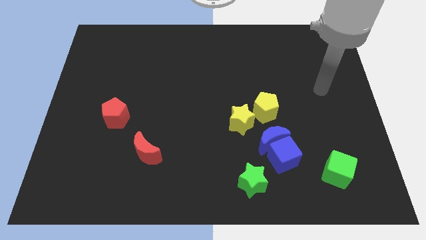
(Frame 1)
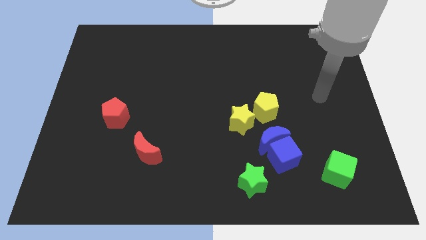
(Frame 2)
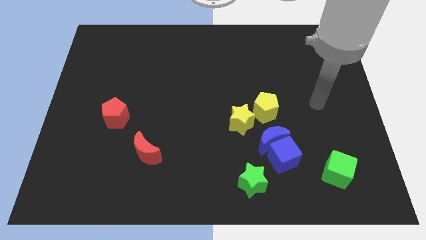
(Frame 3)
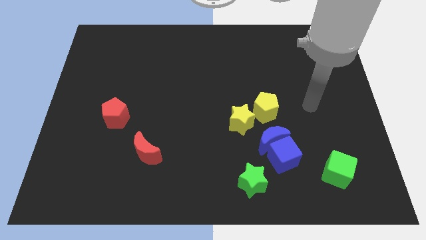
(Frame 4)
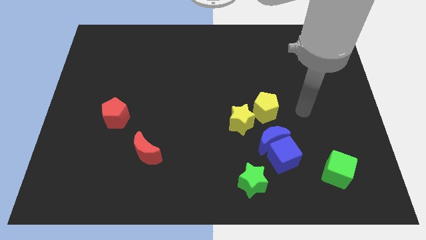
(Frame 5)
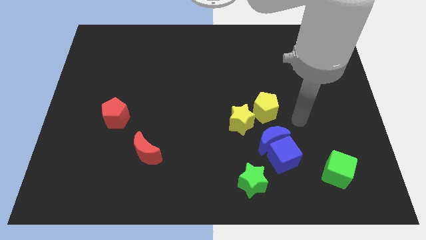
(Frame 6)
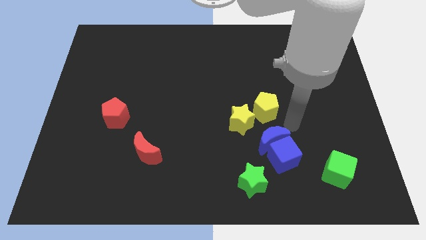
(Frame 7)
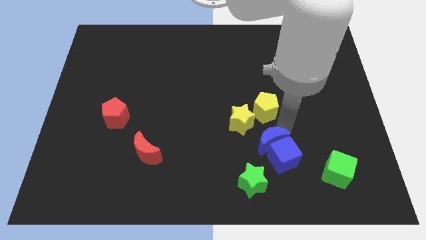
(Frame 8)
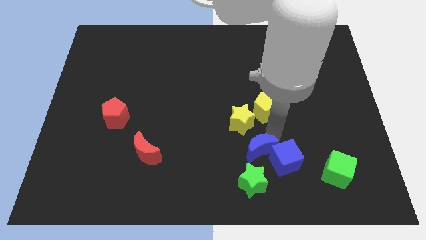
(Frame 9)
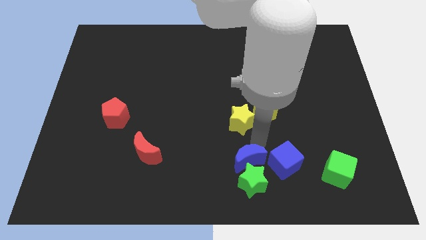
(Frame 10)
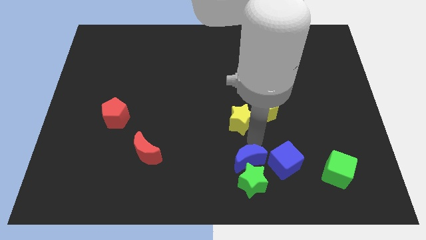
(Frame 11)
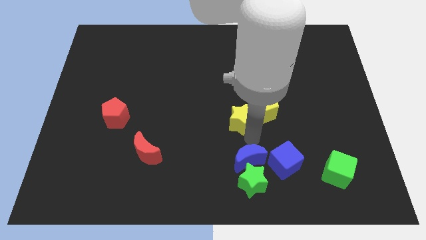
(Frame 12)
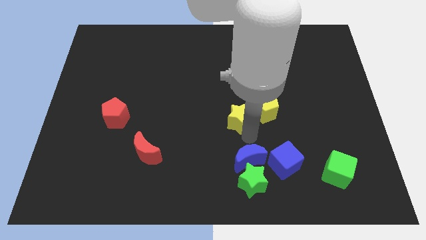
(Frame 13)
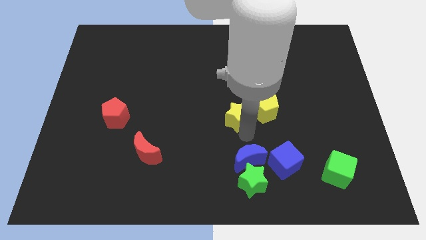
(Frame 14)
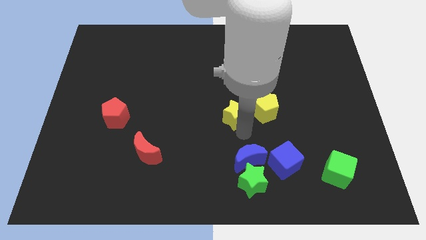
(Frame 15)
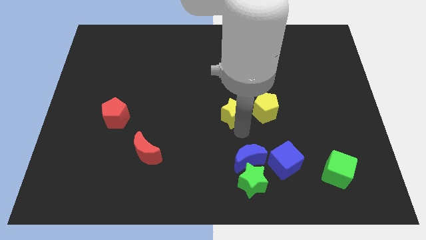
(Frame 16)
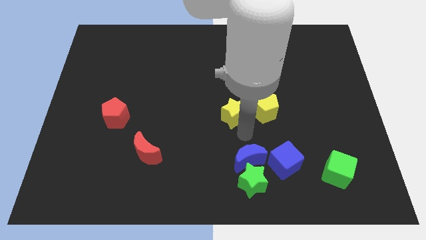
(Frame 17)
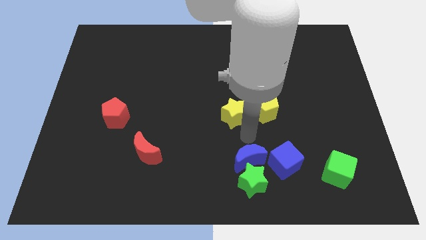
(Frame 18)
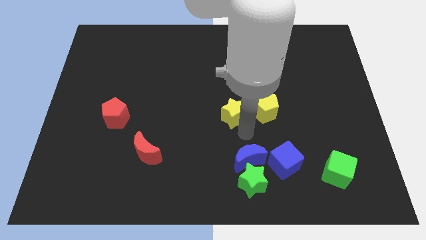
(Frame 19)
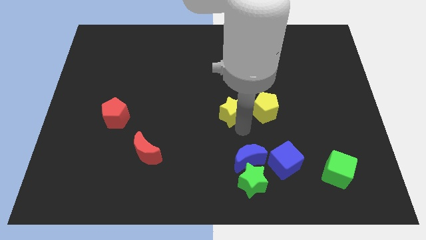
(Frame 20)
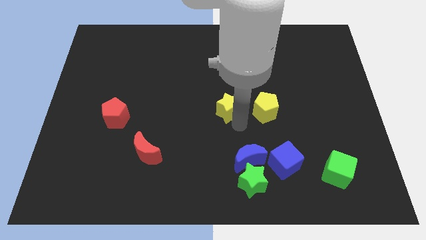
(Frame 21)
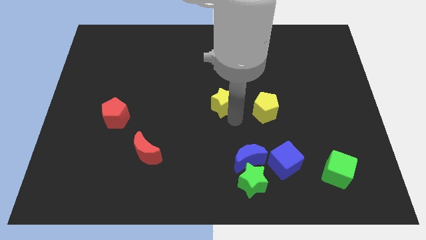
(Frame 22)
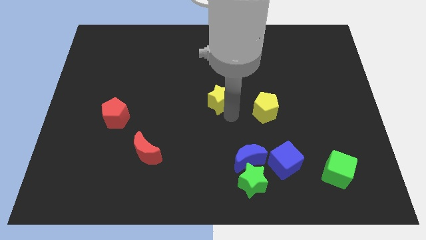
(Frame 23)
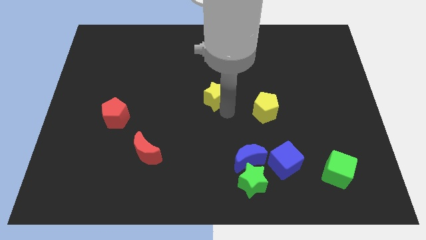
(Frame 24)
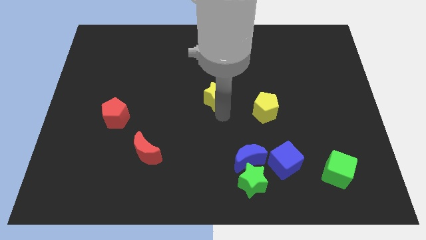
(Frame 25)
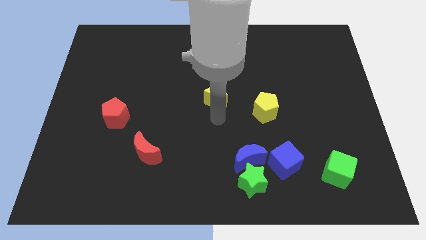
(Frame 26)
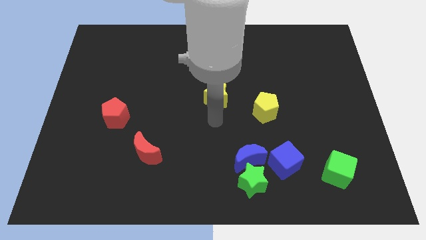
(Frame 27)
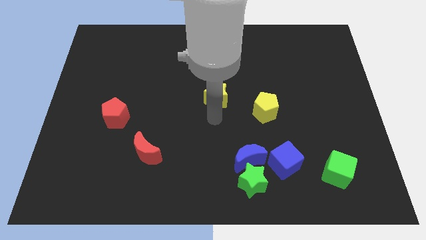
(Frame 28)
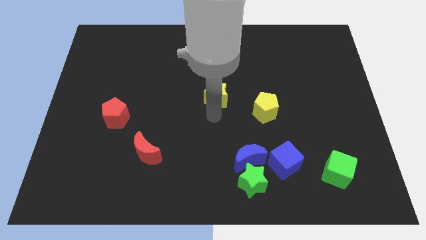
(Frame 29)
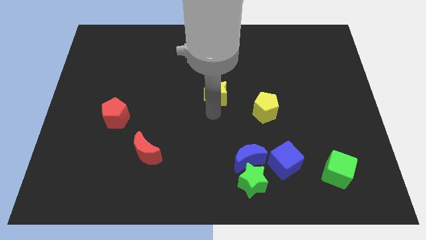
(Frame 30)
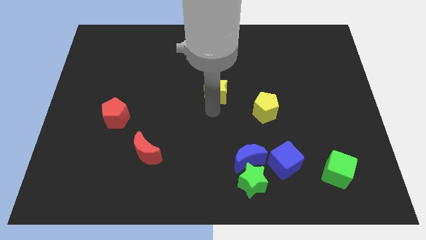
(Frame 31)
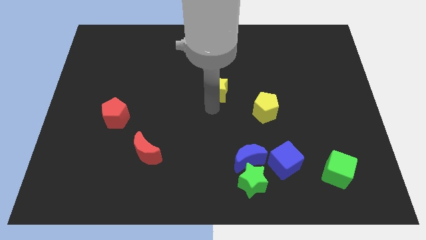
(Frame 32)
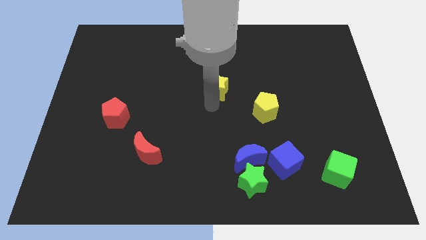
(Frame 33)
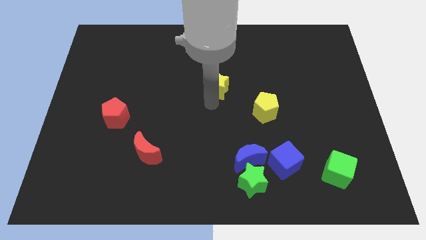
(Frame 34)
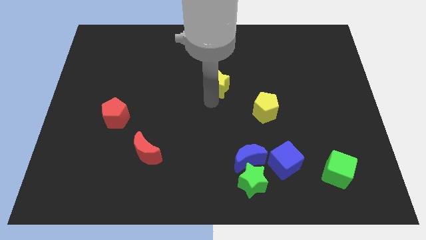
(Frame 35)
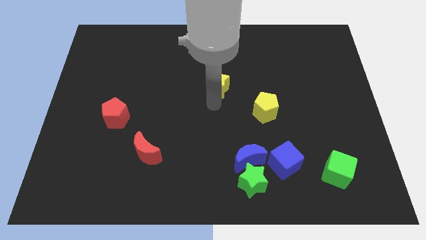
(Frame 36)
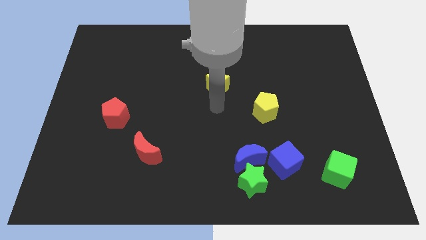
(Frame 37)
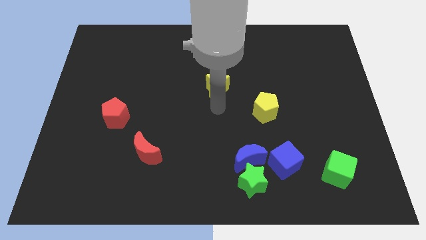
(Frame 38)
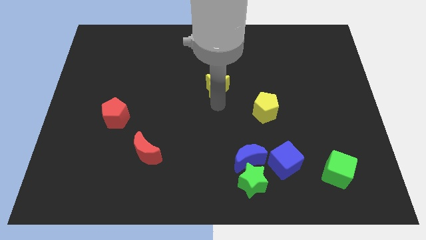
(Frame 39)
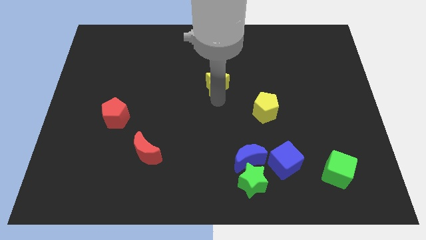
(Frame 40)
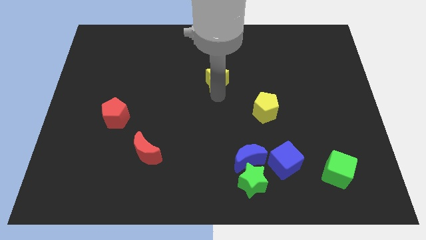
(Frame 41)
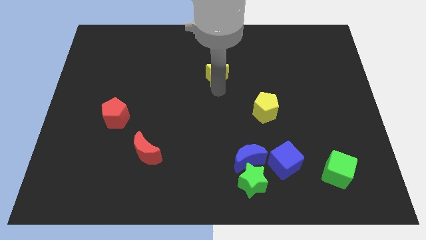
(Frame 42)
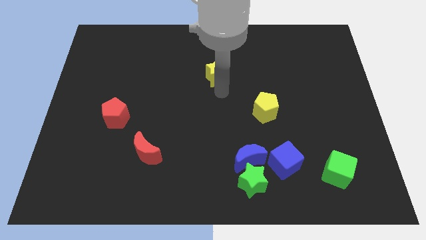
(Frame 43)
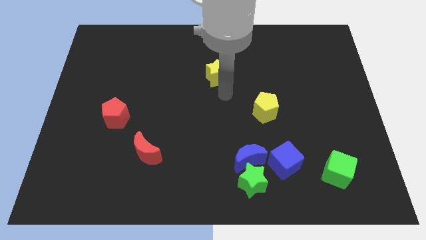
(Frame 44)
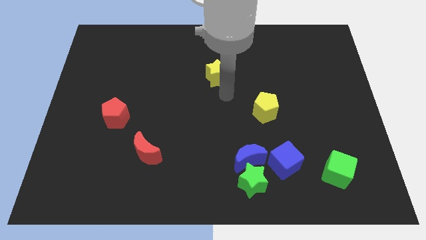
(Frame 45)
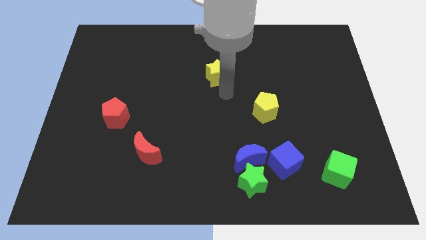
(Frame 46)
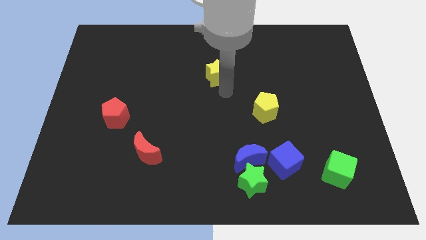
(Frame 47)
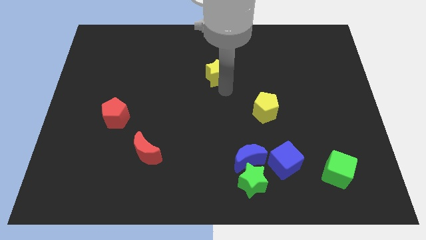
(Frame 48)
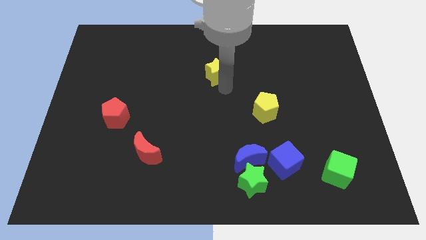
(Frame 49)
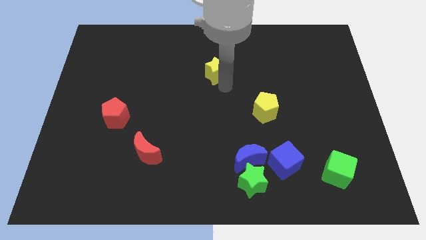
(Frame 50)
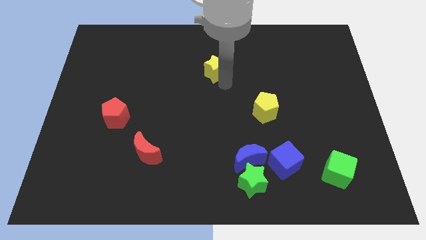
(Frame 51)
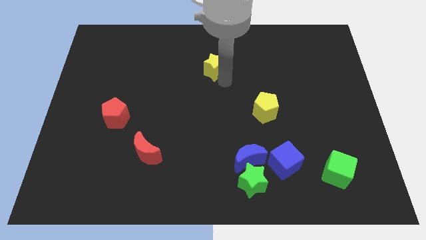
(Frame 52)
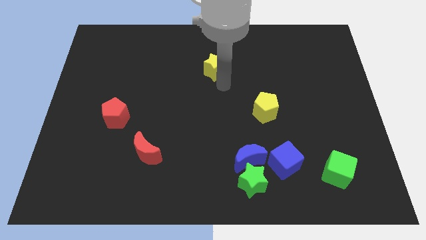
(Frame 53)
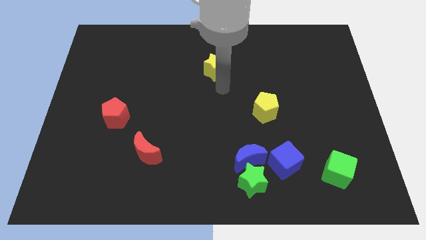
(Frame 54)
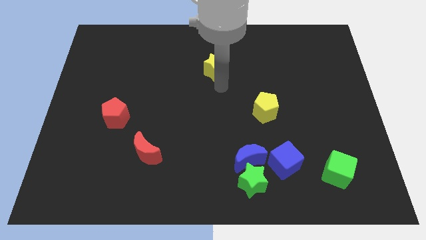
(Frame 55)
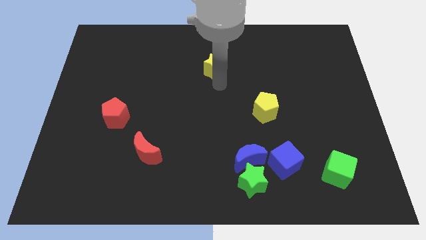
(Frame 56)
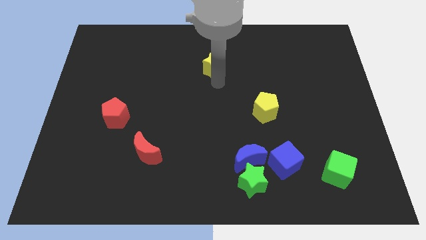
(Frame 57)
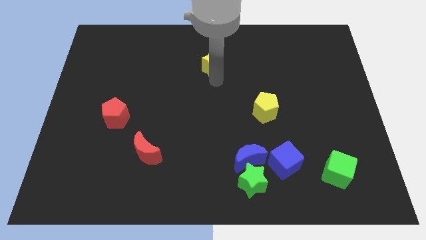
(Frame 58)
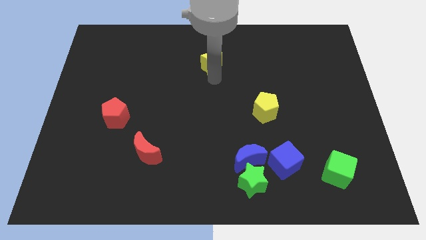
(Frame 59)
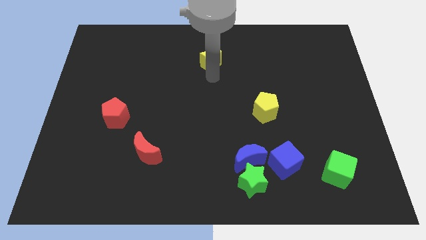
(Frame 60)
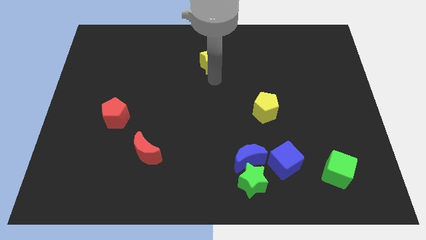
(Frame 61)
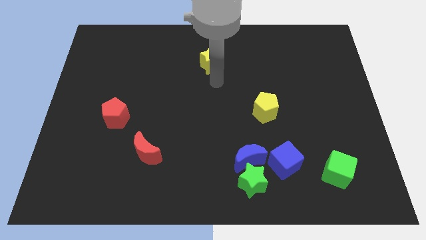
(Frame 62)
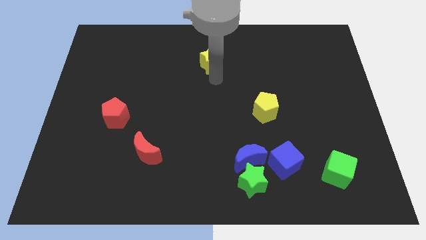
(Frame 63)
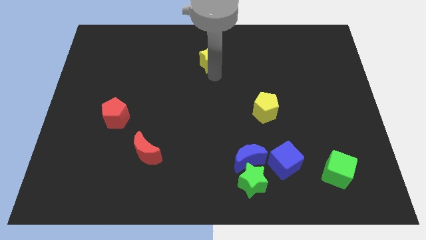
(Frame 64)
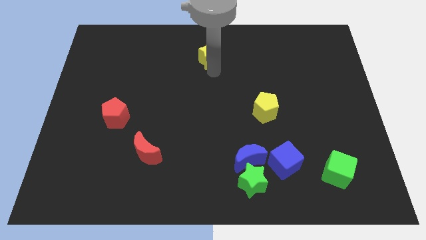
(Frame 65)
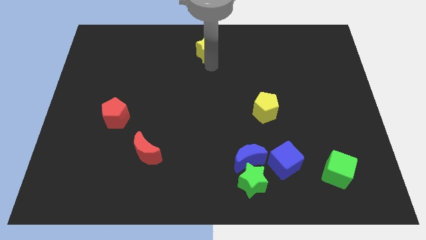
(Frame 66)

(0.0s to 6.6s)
move the yellow star to the top

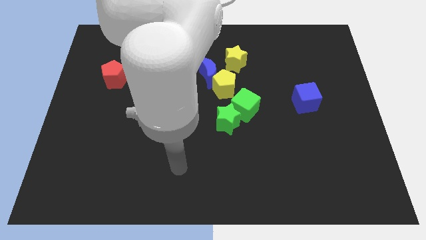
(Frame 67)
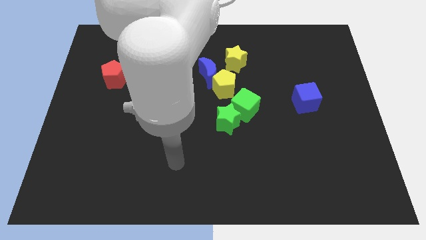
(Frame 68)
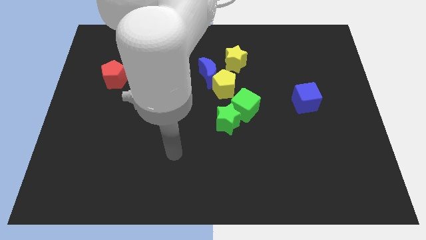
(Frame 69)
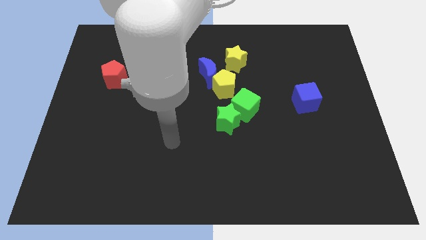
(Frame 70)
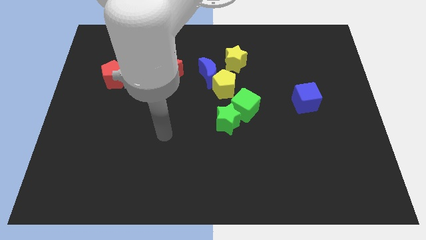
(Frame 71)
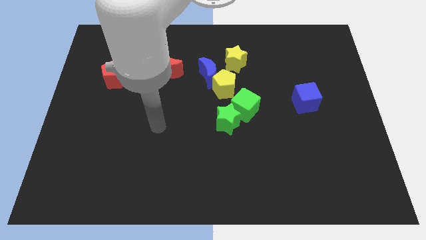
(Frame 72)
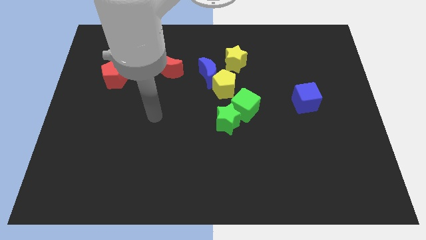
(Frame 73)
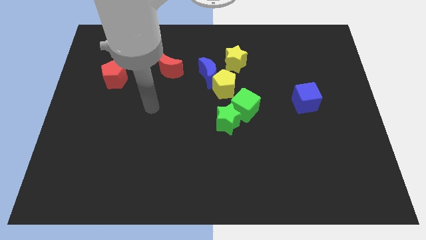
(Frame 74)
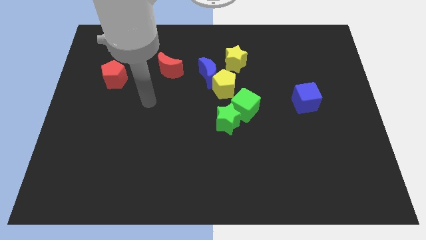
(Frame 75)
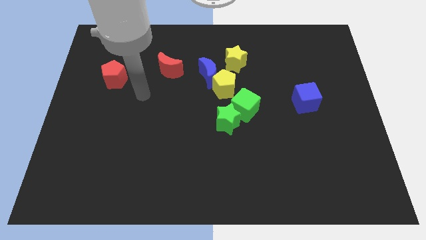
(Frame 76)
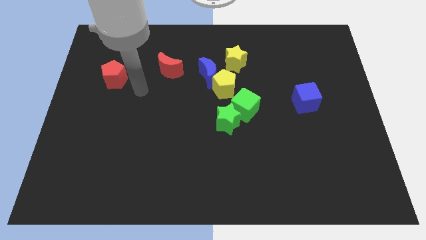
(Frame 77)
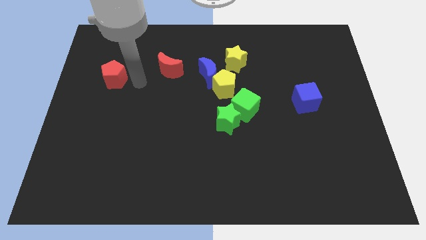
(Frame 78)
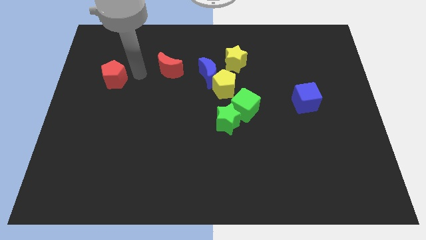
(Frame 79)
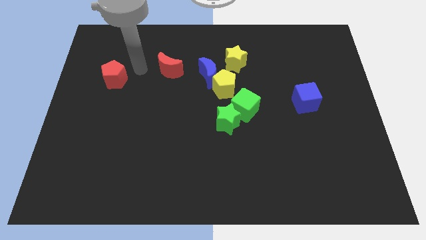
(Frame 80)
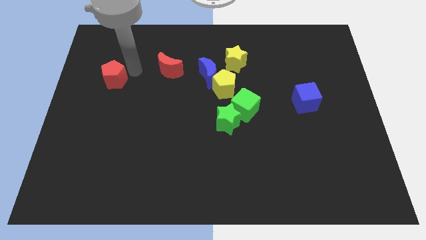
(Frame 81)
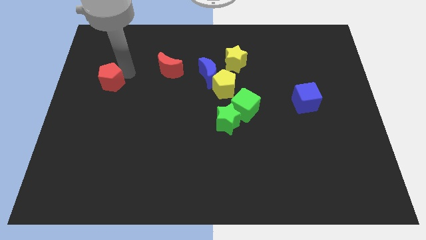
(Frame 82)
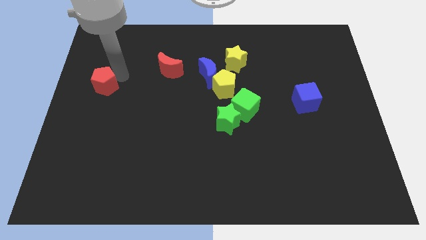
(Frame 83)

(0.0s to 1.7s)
slide the red pentagon to the left side
